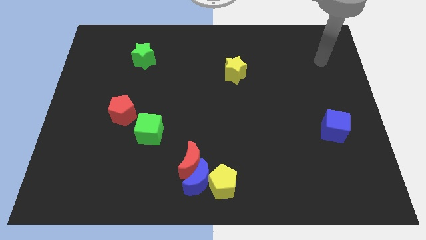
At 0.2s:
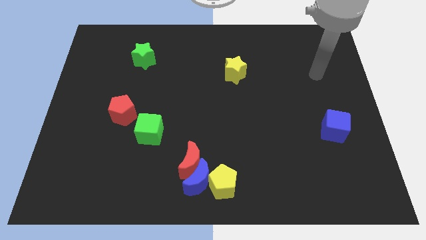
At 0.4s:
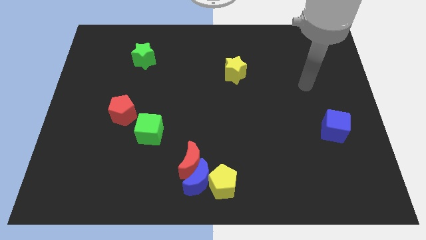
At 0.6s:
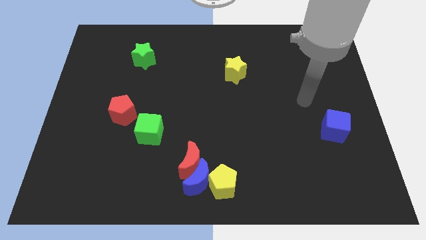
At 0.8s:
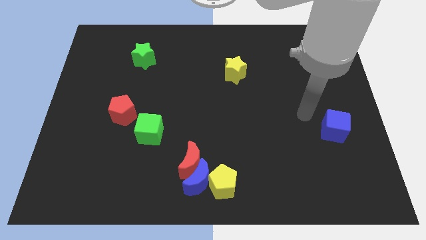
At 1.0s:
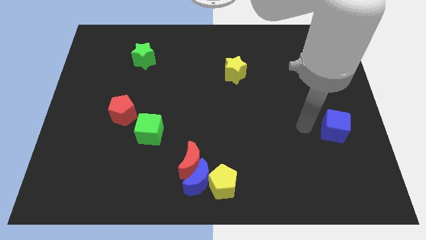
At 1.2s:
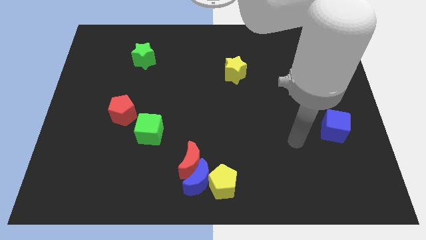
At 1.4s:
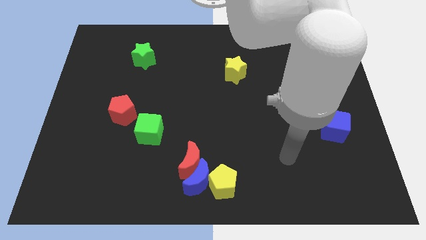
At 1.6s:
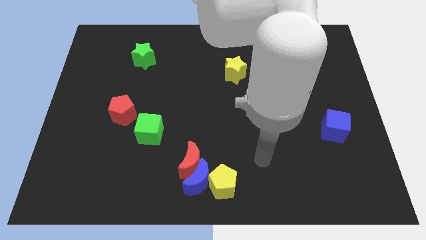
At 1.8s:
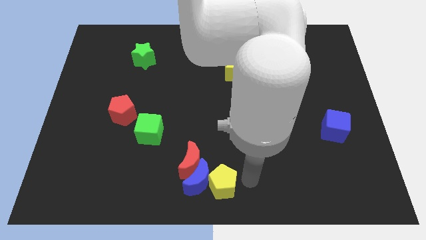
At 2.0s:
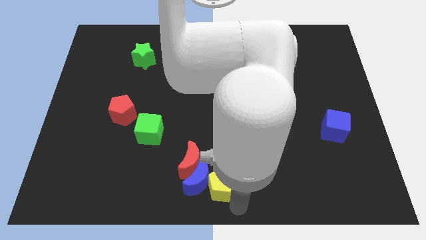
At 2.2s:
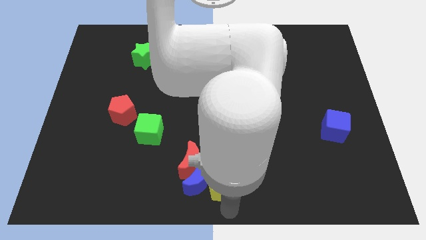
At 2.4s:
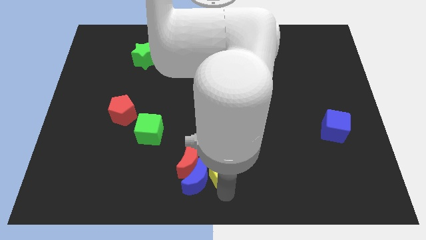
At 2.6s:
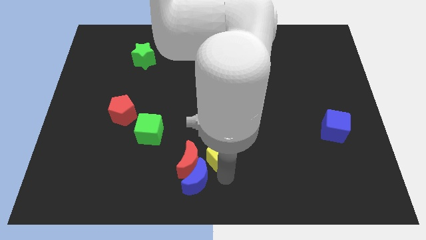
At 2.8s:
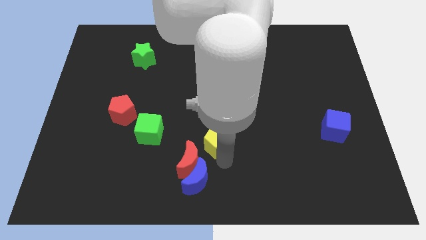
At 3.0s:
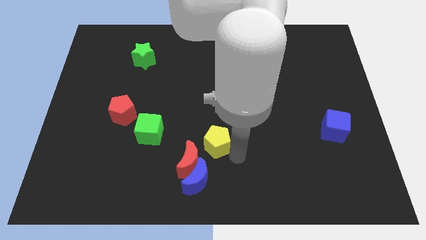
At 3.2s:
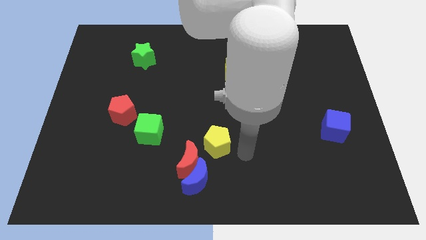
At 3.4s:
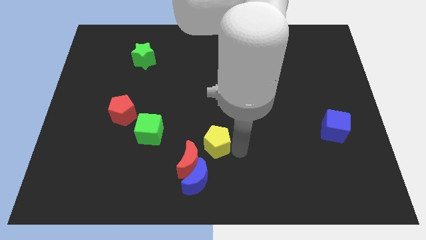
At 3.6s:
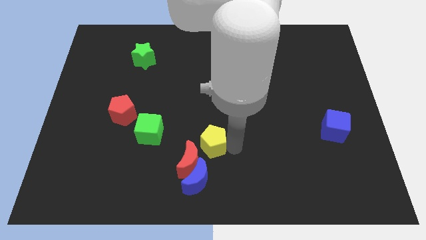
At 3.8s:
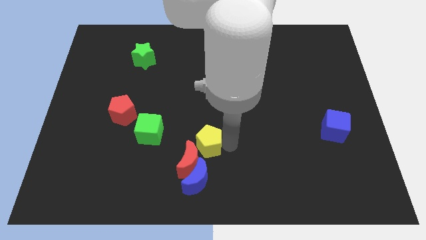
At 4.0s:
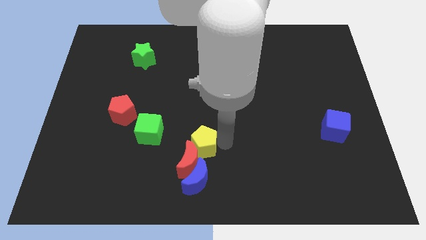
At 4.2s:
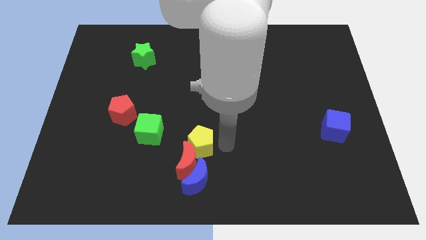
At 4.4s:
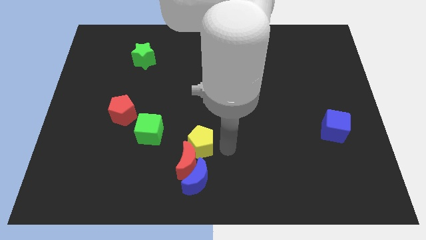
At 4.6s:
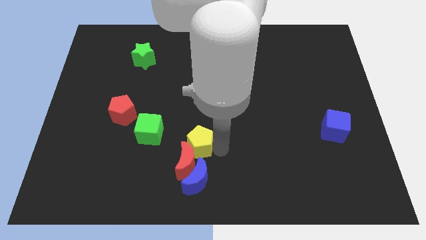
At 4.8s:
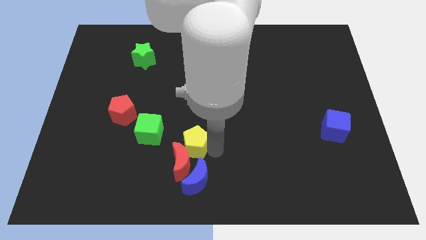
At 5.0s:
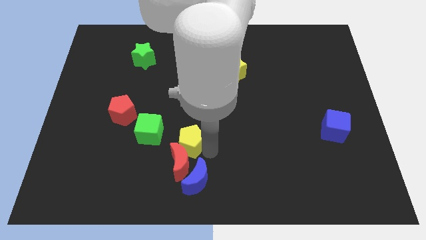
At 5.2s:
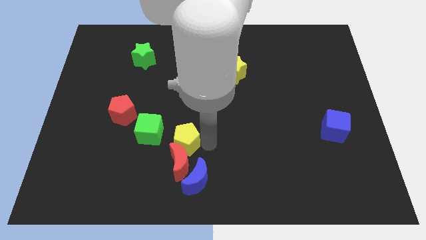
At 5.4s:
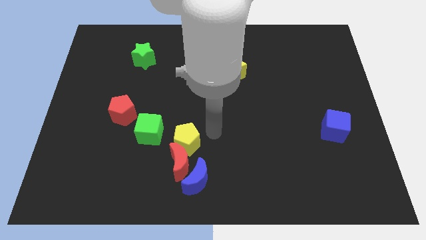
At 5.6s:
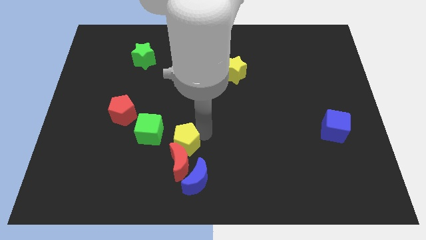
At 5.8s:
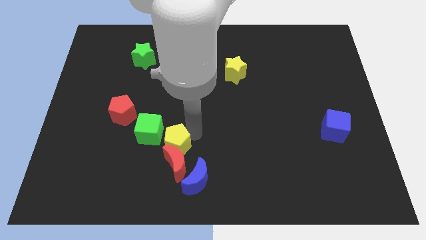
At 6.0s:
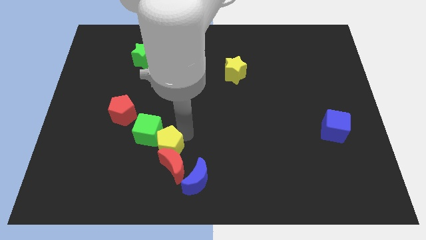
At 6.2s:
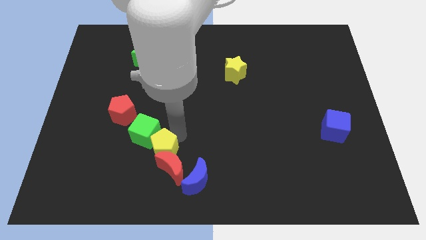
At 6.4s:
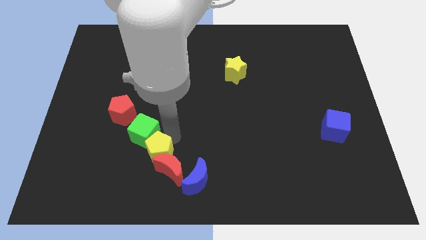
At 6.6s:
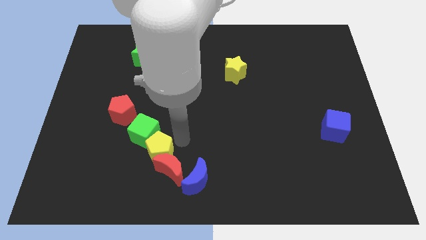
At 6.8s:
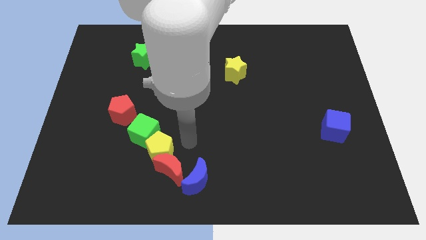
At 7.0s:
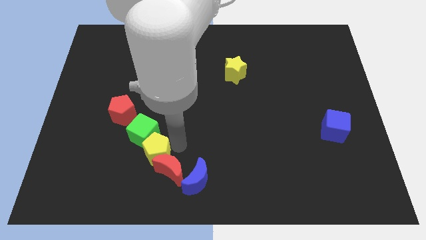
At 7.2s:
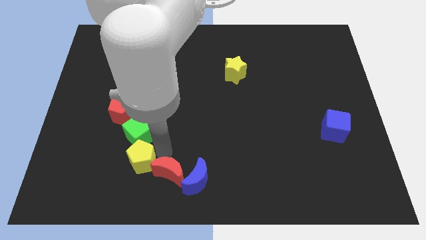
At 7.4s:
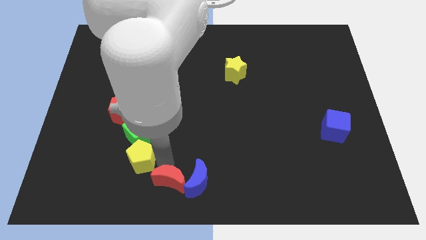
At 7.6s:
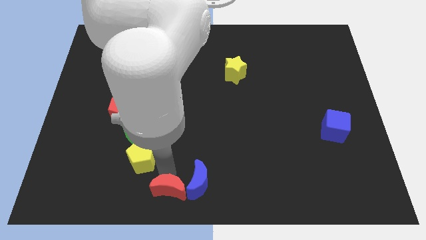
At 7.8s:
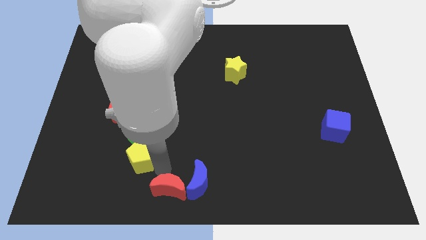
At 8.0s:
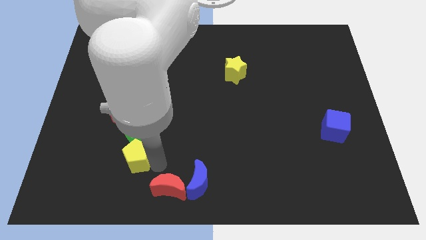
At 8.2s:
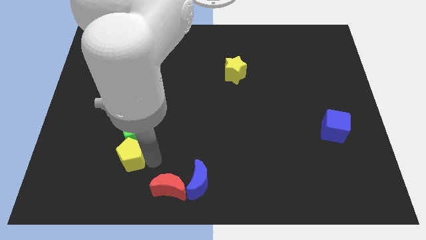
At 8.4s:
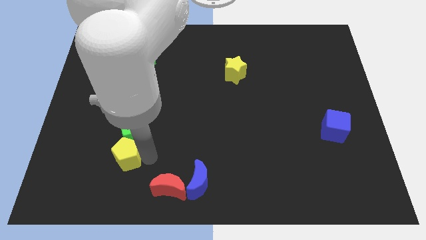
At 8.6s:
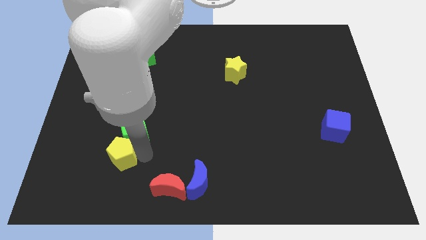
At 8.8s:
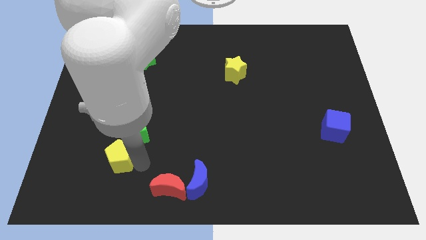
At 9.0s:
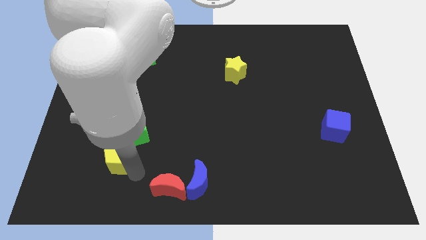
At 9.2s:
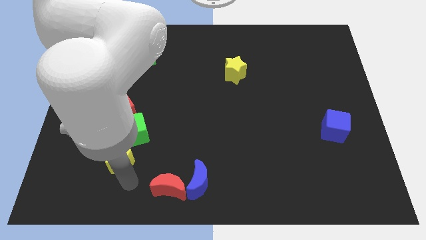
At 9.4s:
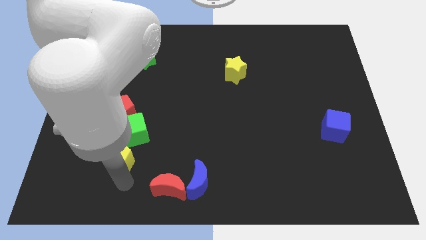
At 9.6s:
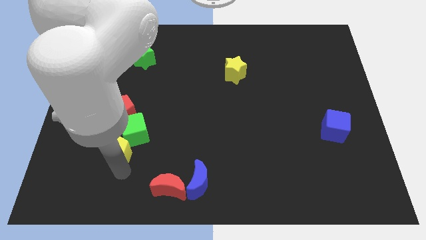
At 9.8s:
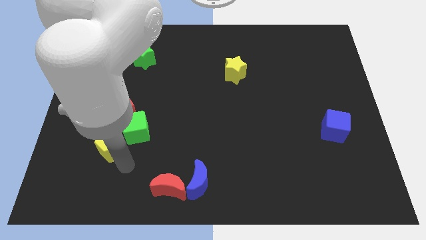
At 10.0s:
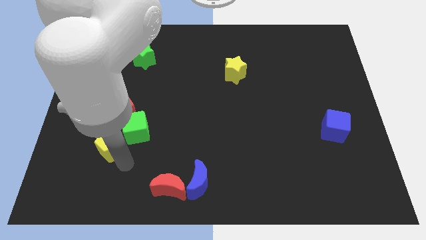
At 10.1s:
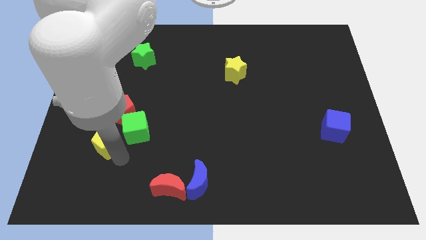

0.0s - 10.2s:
push the yellow pentagon diagonally down and to the left of the red pentagon

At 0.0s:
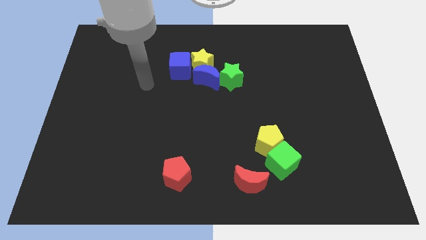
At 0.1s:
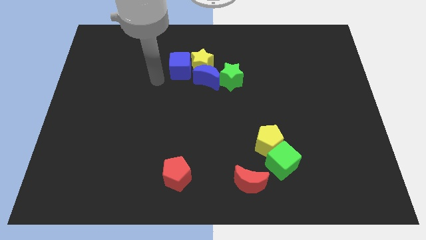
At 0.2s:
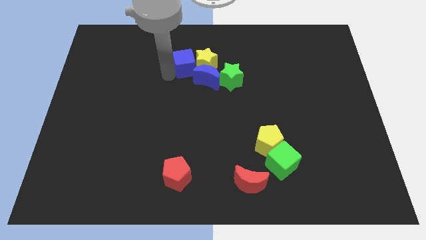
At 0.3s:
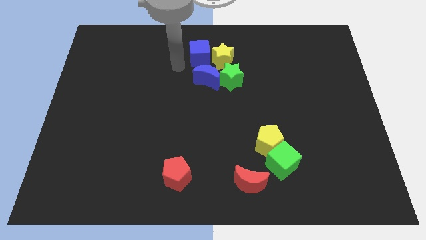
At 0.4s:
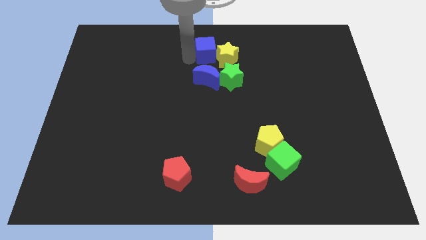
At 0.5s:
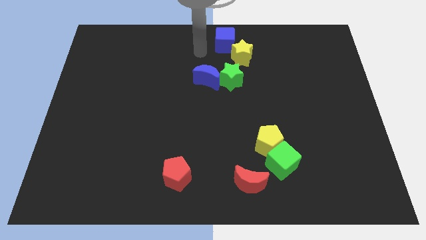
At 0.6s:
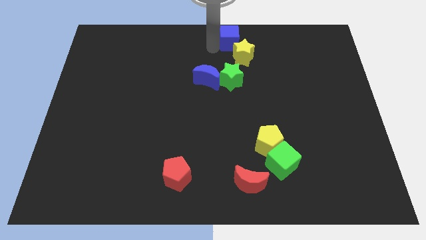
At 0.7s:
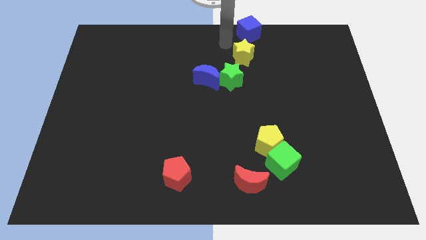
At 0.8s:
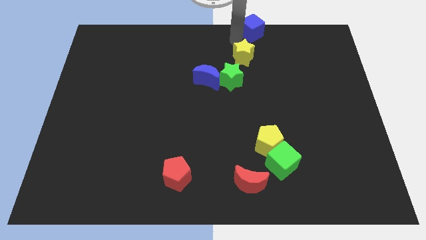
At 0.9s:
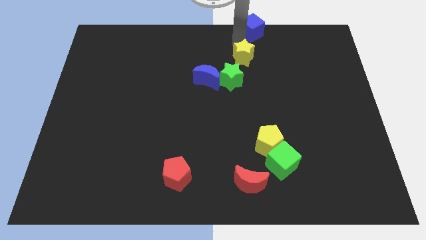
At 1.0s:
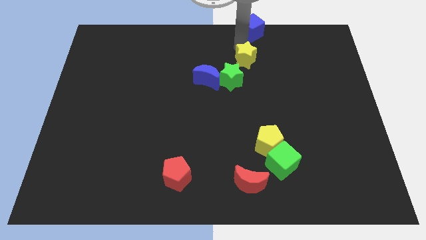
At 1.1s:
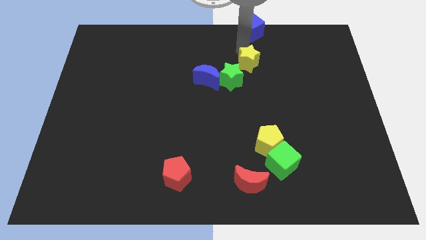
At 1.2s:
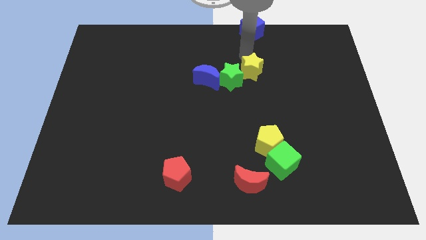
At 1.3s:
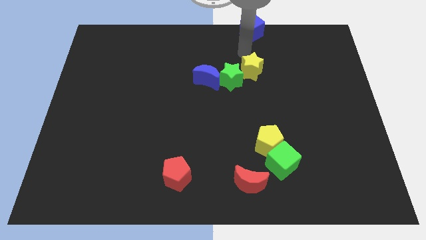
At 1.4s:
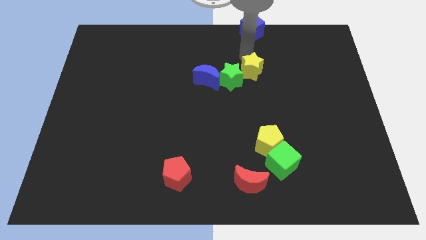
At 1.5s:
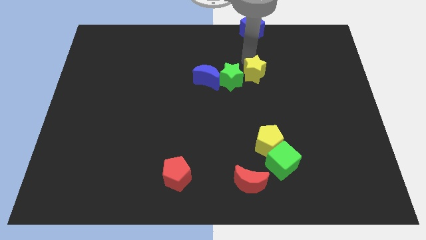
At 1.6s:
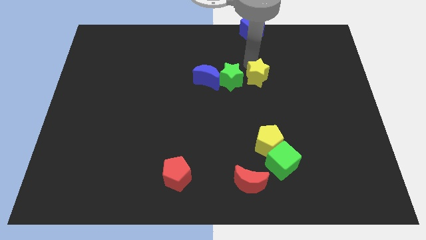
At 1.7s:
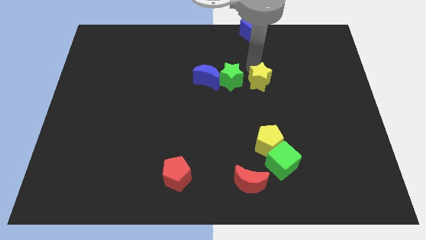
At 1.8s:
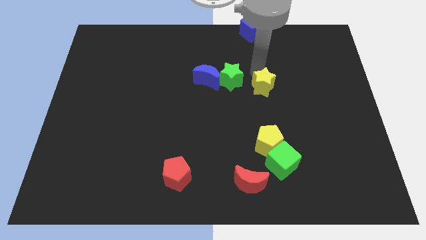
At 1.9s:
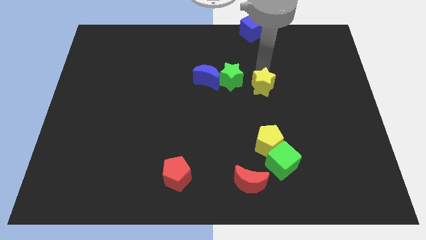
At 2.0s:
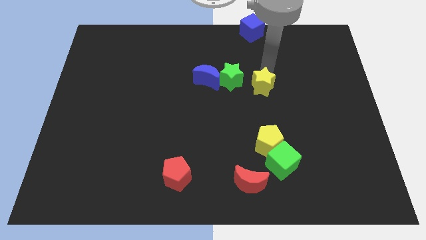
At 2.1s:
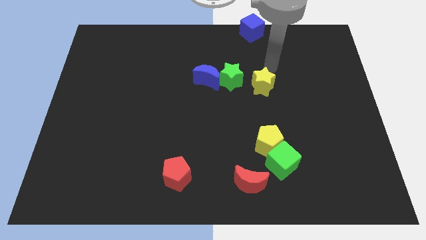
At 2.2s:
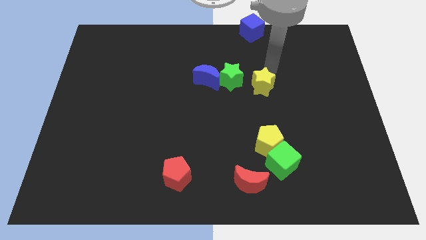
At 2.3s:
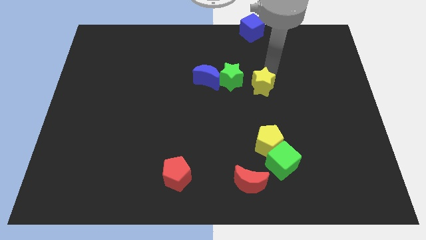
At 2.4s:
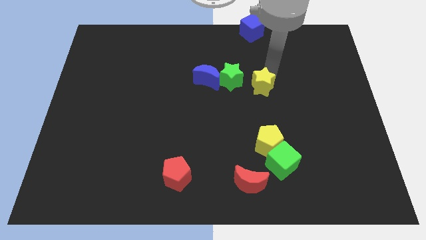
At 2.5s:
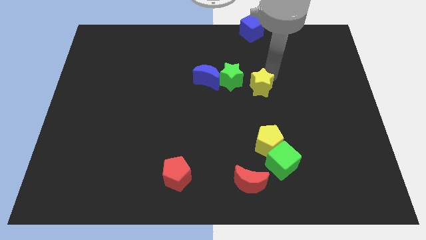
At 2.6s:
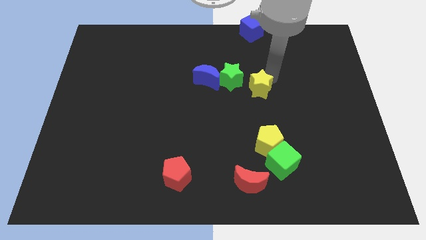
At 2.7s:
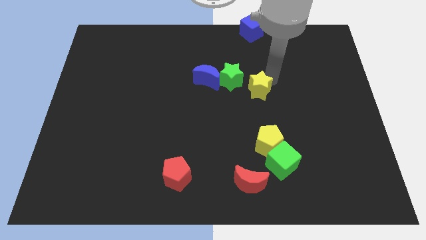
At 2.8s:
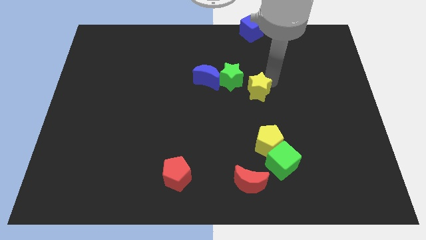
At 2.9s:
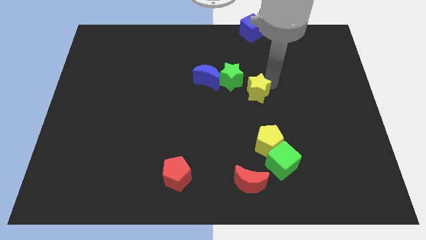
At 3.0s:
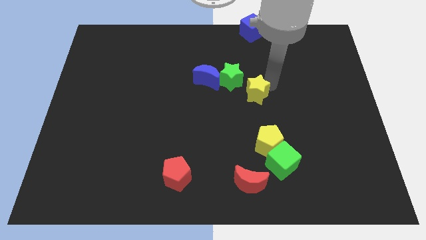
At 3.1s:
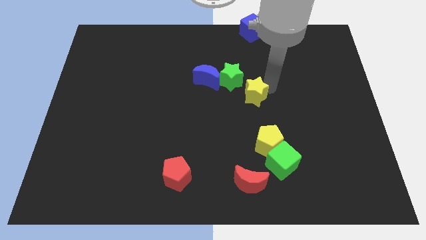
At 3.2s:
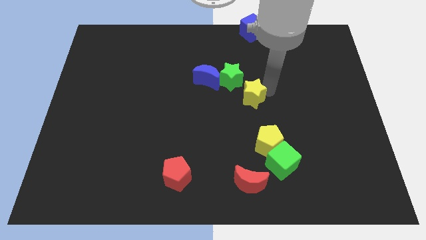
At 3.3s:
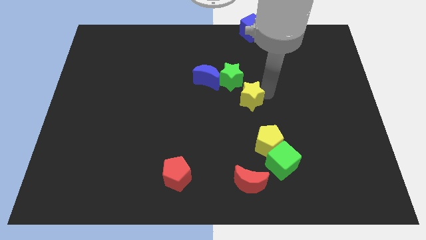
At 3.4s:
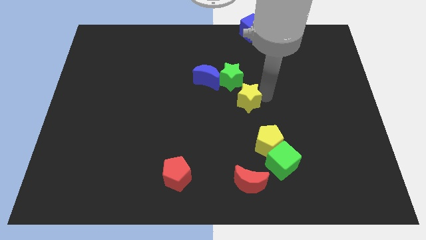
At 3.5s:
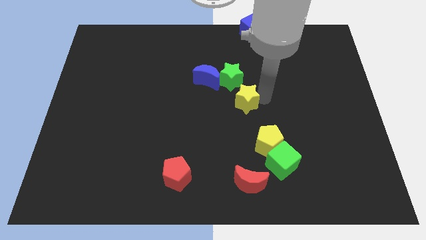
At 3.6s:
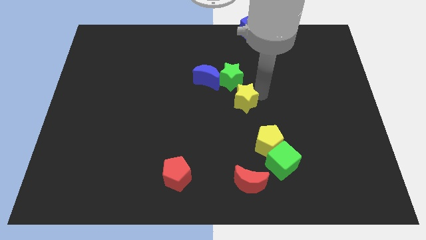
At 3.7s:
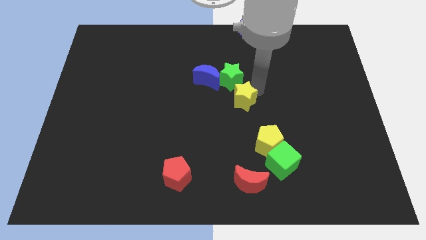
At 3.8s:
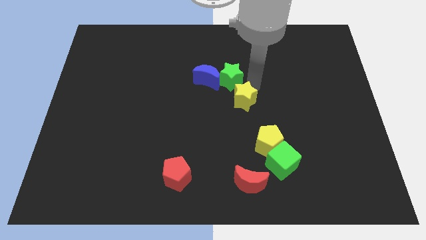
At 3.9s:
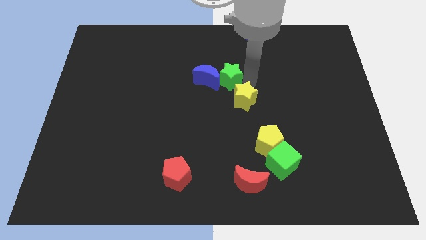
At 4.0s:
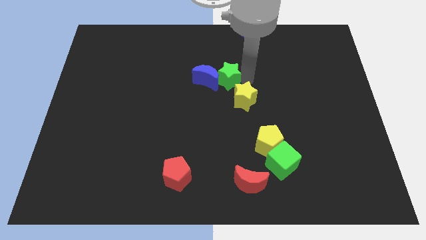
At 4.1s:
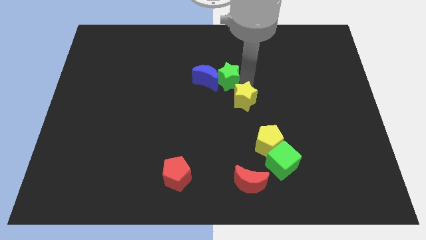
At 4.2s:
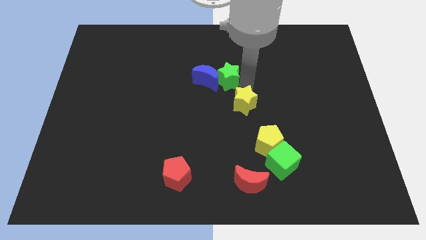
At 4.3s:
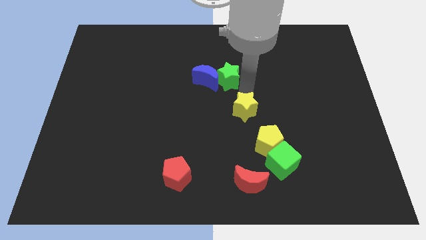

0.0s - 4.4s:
slide the yellow star to the top left side of the yellow pentagon
